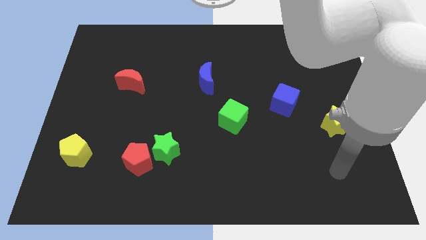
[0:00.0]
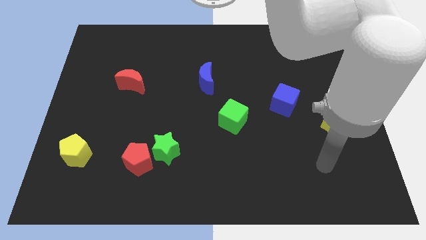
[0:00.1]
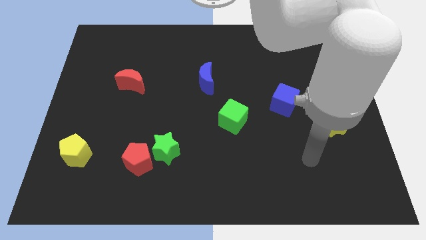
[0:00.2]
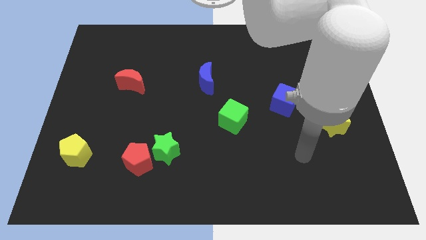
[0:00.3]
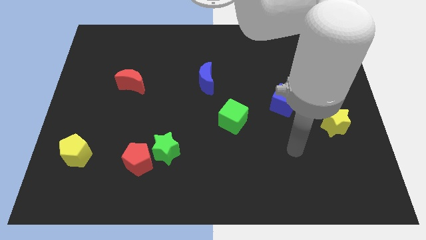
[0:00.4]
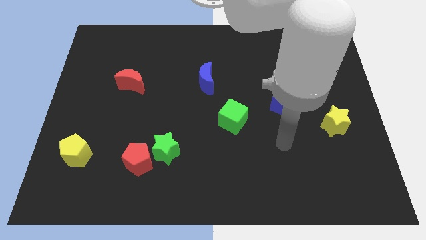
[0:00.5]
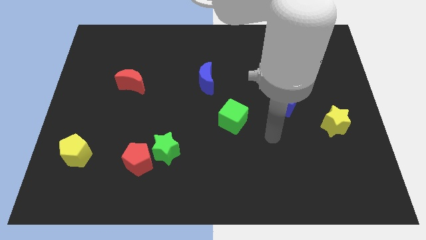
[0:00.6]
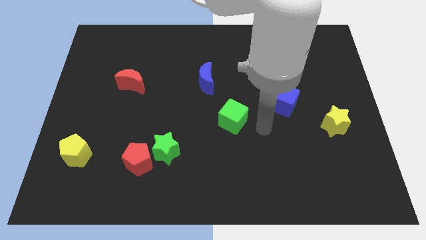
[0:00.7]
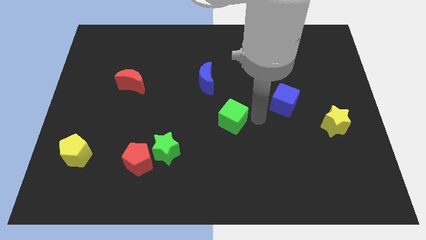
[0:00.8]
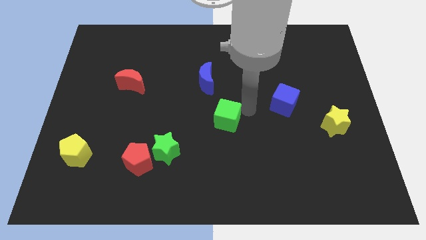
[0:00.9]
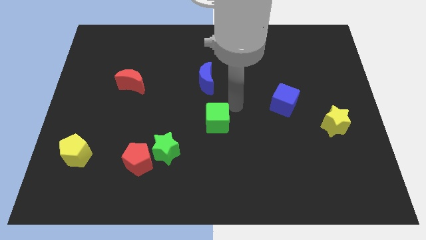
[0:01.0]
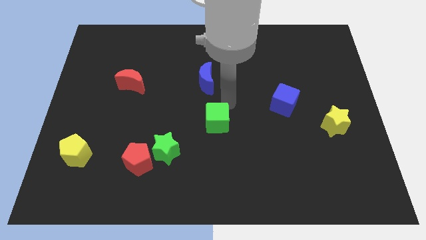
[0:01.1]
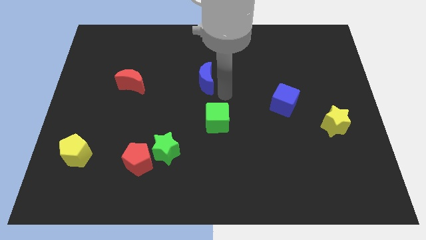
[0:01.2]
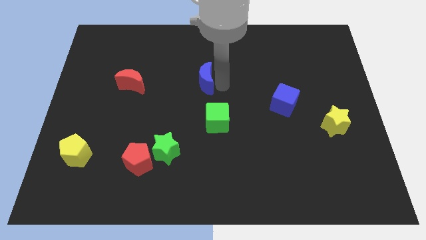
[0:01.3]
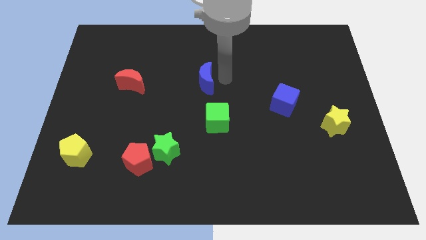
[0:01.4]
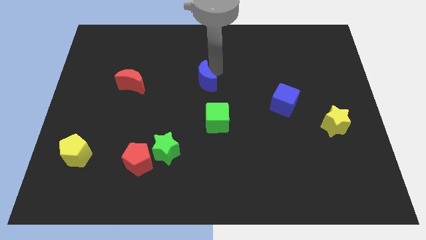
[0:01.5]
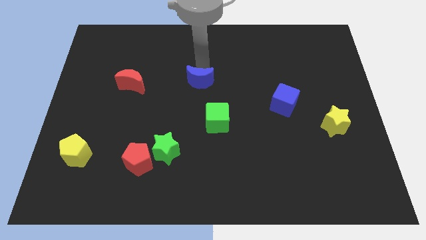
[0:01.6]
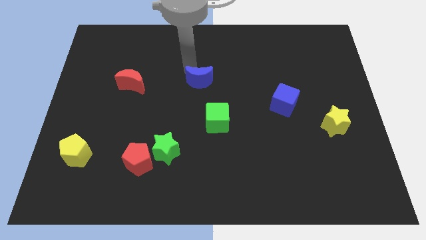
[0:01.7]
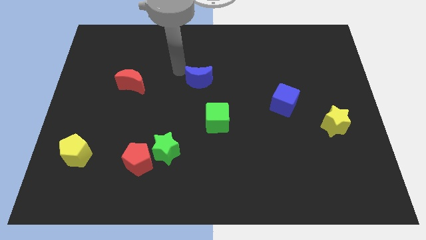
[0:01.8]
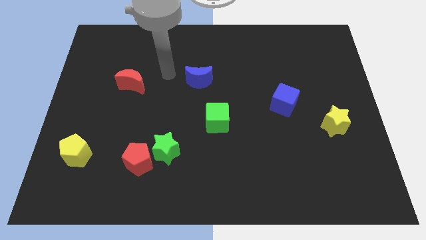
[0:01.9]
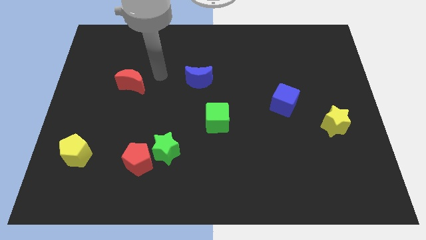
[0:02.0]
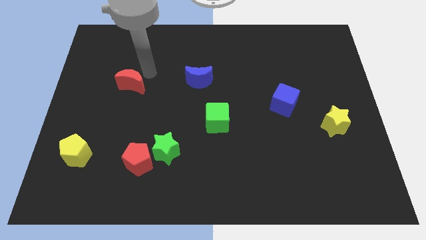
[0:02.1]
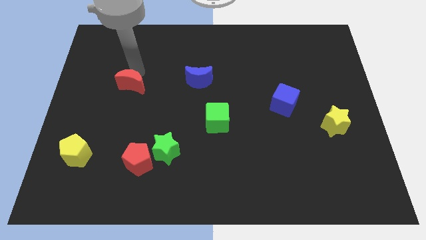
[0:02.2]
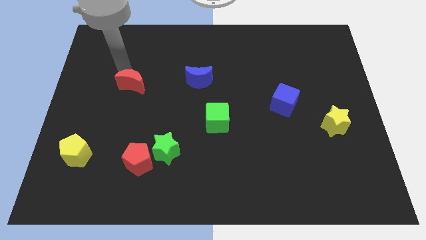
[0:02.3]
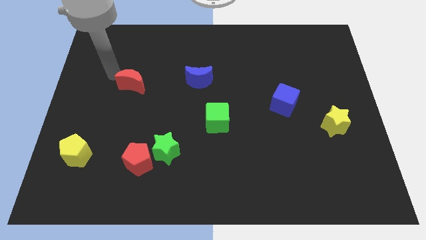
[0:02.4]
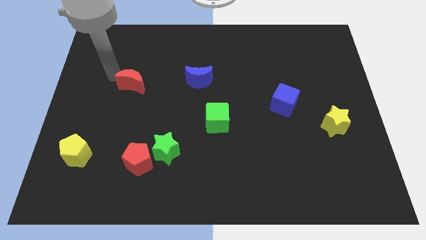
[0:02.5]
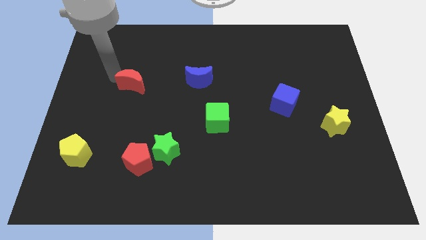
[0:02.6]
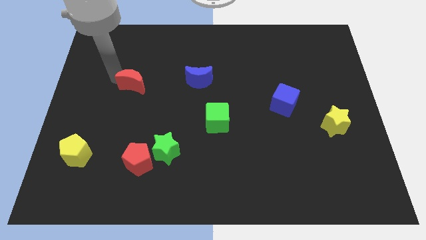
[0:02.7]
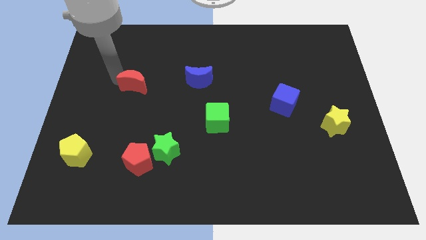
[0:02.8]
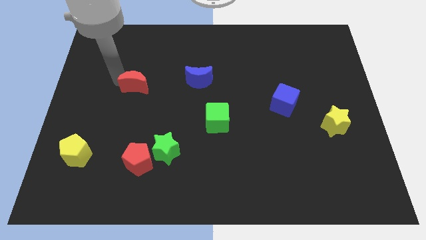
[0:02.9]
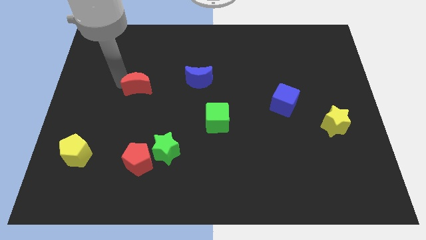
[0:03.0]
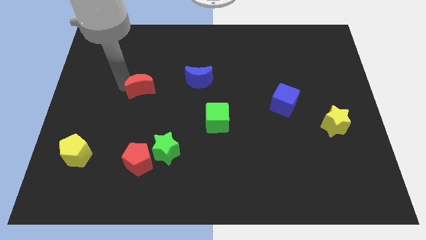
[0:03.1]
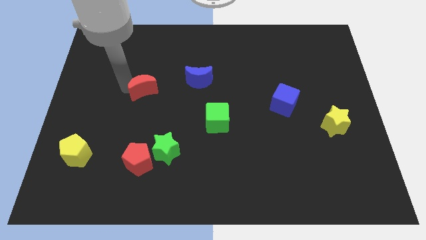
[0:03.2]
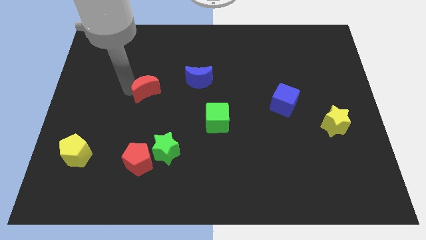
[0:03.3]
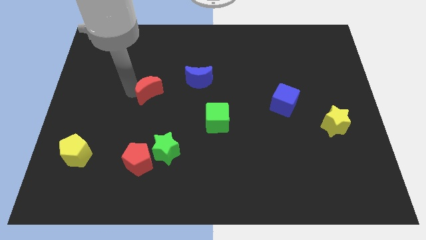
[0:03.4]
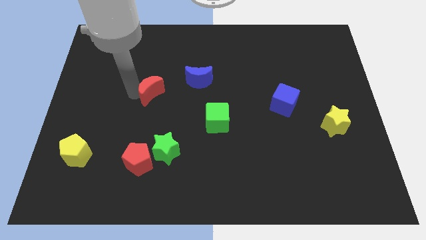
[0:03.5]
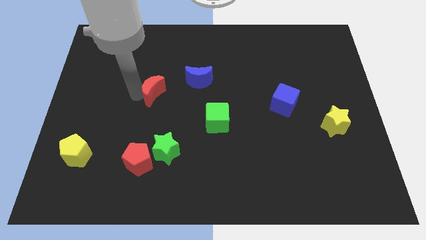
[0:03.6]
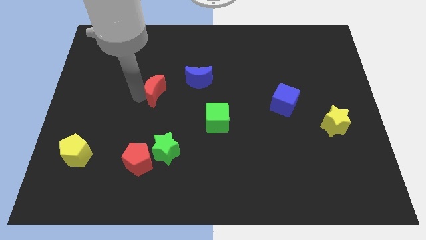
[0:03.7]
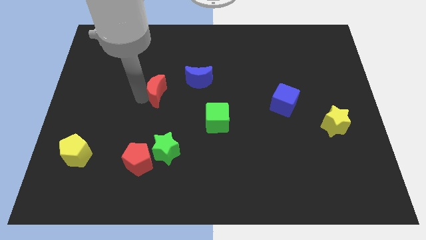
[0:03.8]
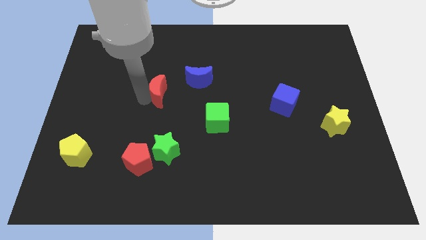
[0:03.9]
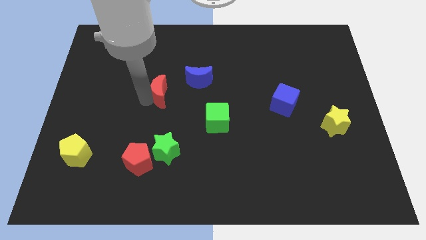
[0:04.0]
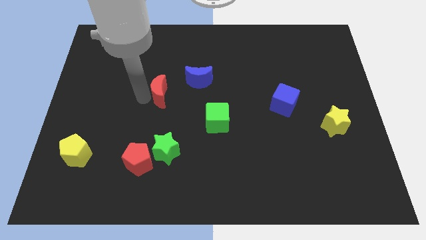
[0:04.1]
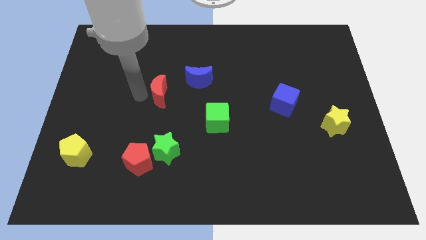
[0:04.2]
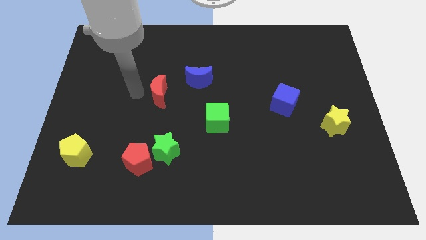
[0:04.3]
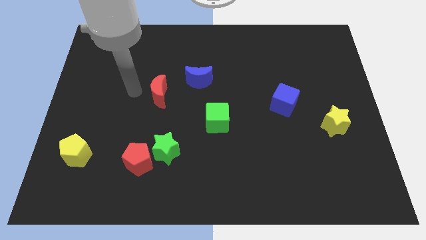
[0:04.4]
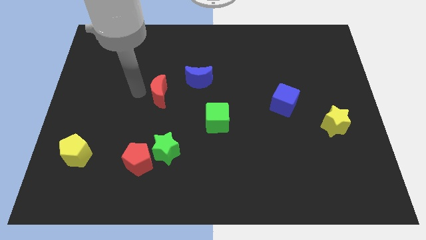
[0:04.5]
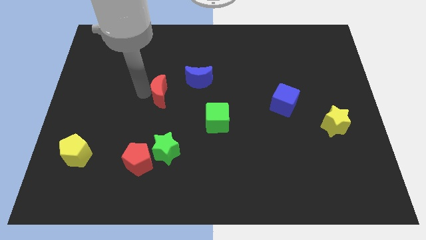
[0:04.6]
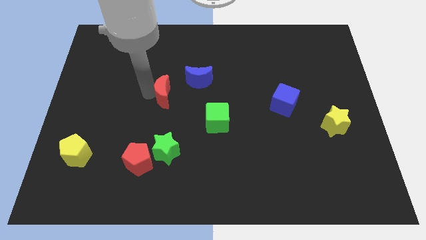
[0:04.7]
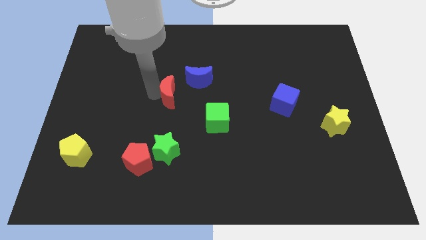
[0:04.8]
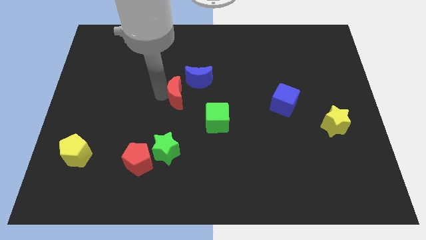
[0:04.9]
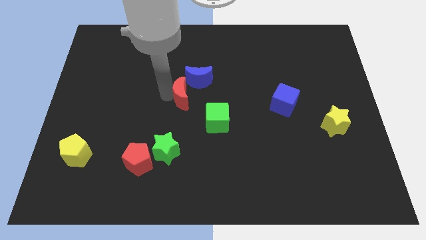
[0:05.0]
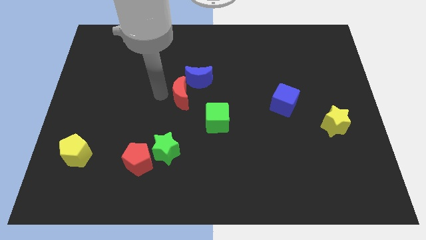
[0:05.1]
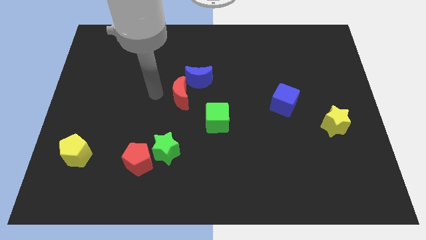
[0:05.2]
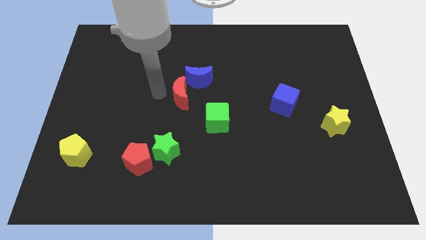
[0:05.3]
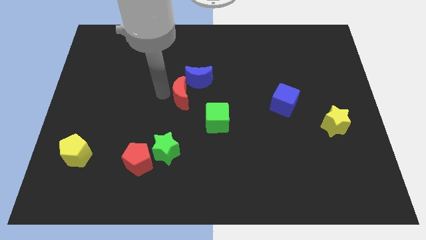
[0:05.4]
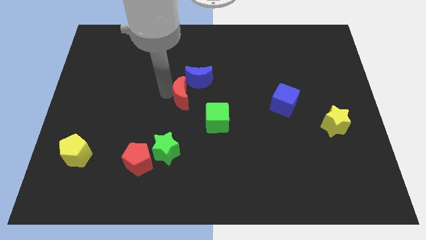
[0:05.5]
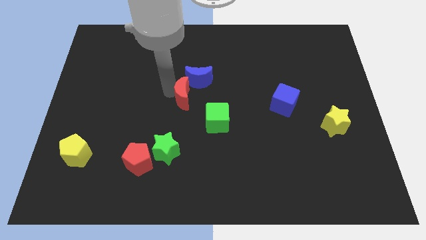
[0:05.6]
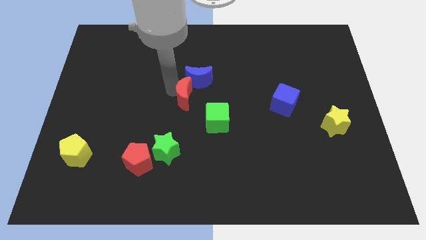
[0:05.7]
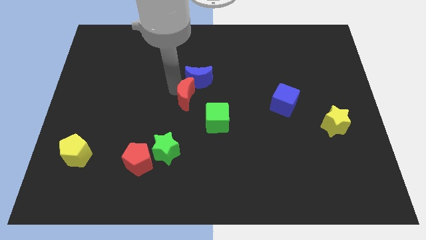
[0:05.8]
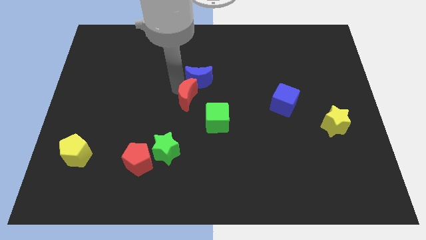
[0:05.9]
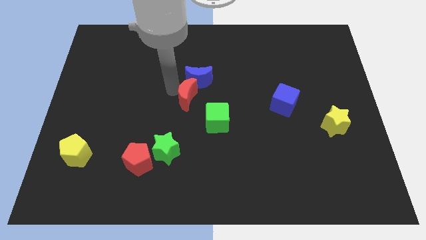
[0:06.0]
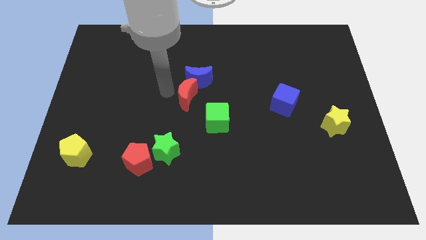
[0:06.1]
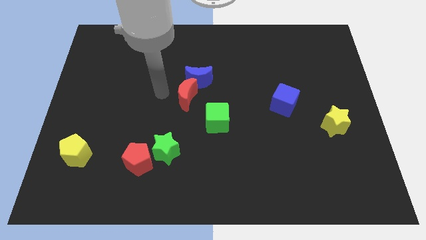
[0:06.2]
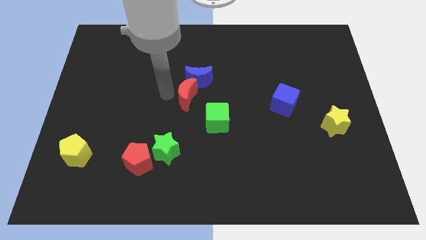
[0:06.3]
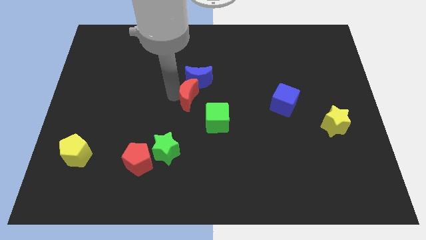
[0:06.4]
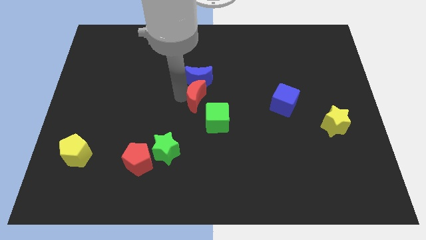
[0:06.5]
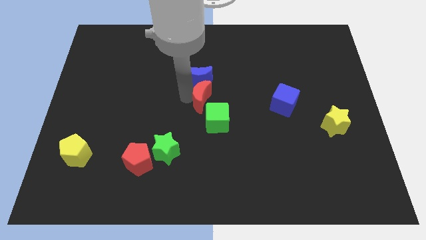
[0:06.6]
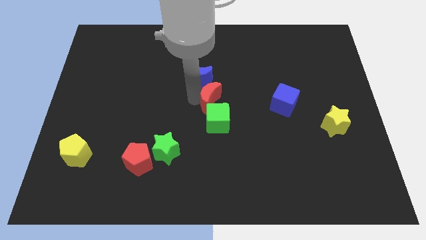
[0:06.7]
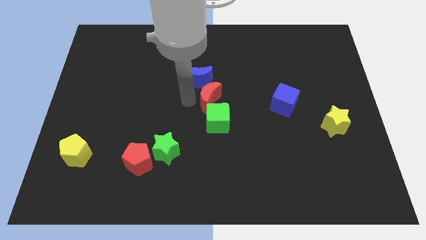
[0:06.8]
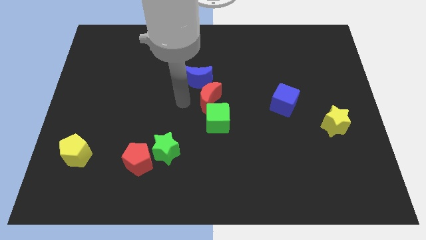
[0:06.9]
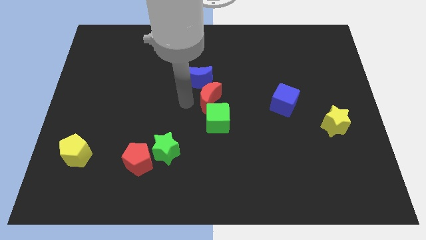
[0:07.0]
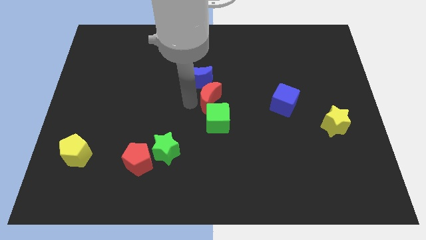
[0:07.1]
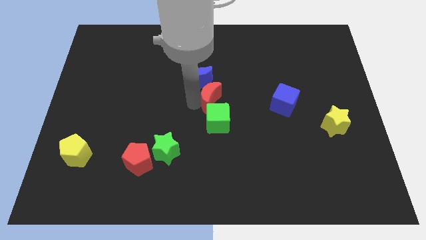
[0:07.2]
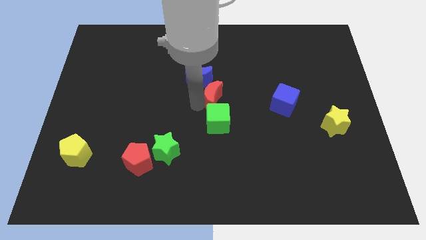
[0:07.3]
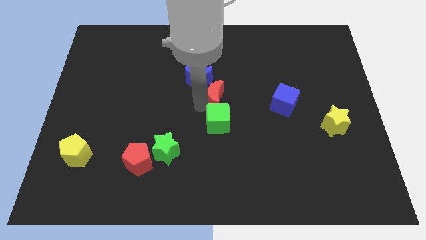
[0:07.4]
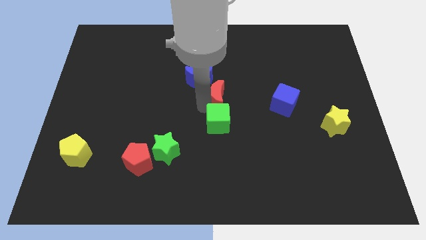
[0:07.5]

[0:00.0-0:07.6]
move the red moon right
